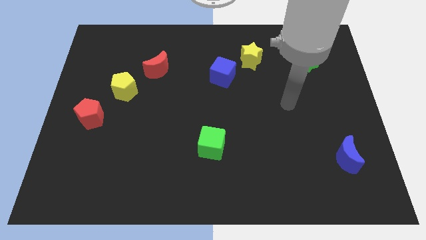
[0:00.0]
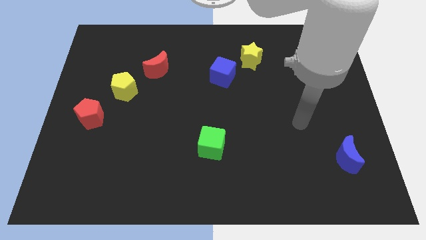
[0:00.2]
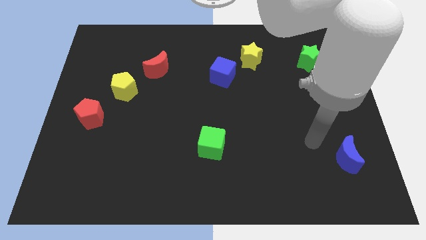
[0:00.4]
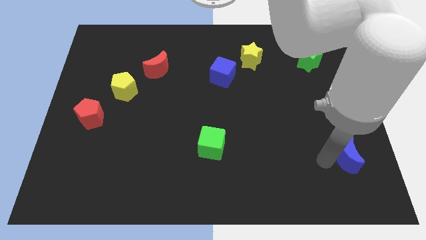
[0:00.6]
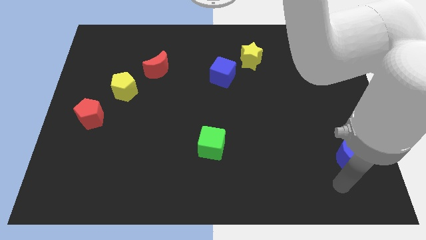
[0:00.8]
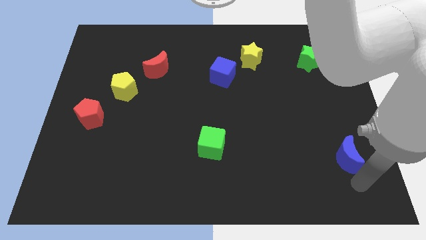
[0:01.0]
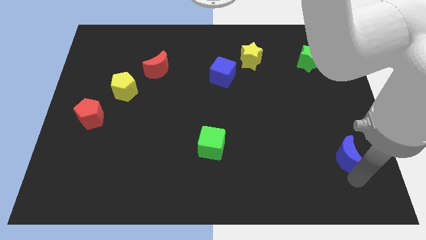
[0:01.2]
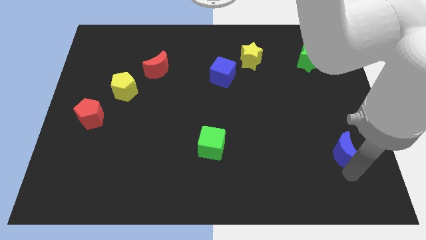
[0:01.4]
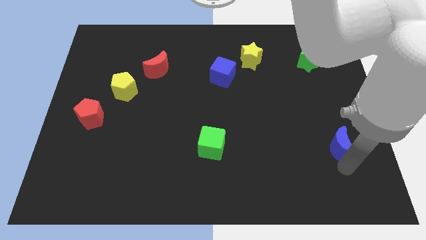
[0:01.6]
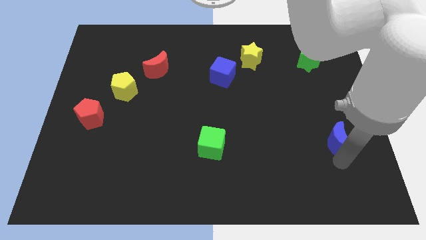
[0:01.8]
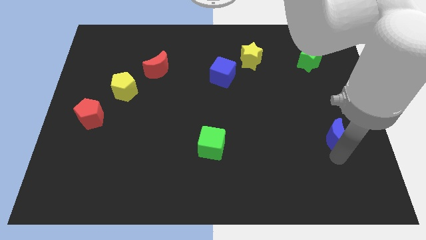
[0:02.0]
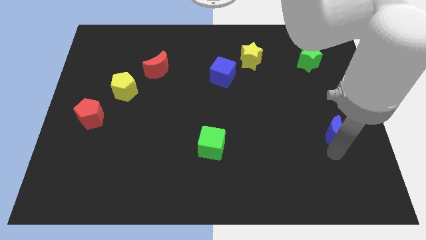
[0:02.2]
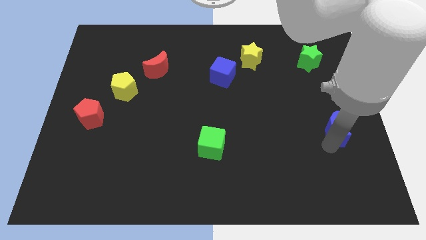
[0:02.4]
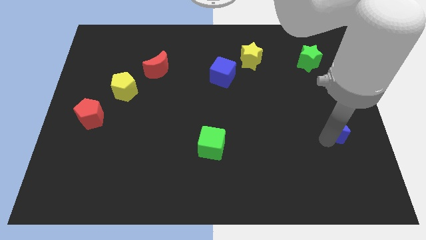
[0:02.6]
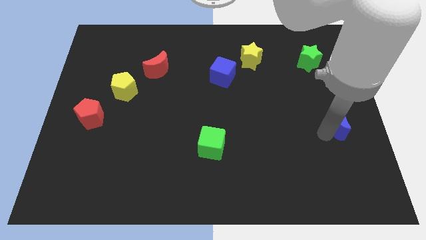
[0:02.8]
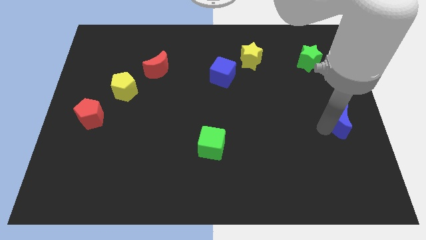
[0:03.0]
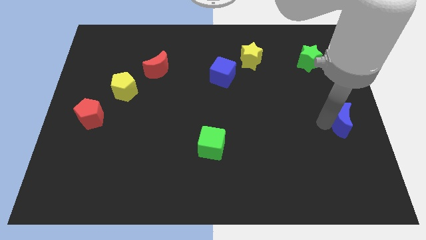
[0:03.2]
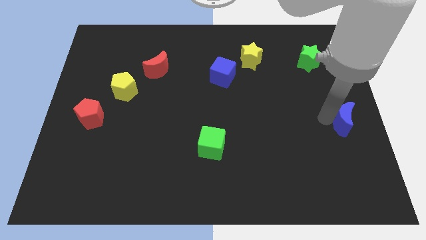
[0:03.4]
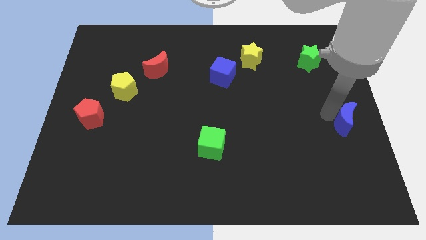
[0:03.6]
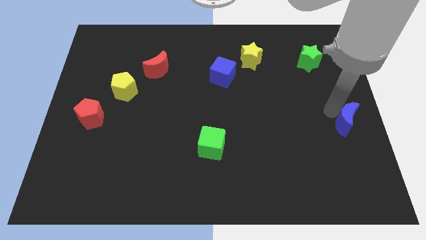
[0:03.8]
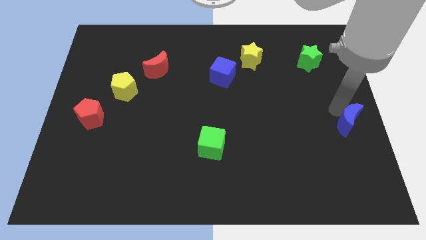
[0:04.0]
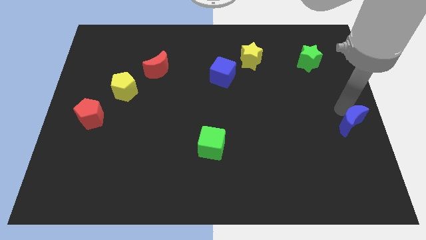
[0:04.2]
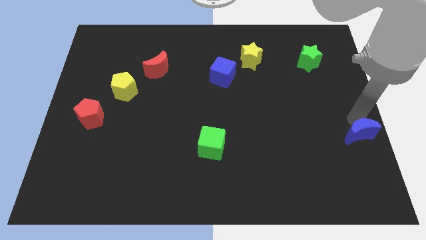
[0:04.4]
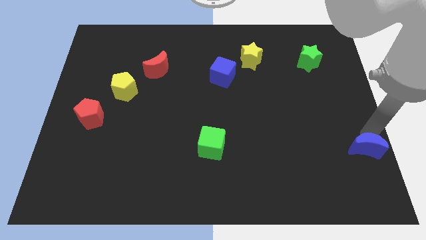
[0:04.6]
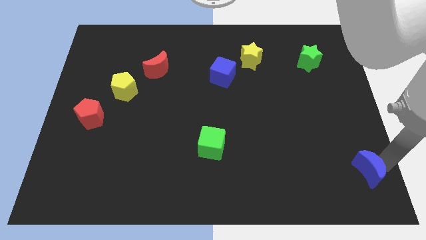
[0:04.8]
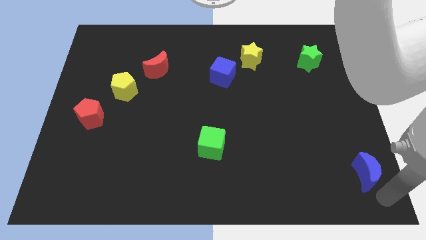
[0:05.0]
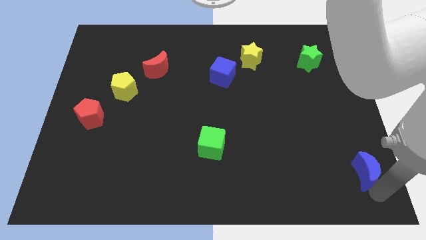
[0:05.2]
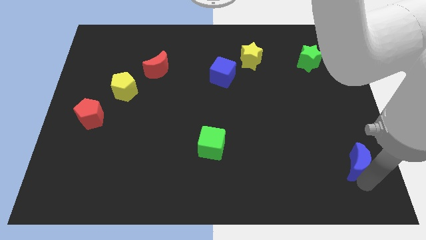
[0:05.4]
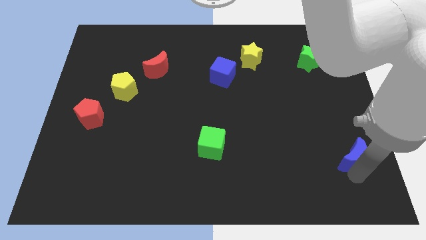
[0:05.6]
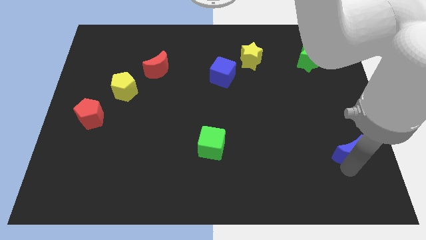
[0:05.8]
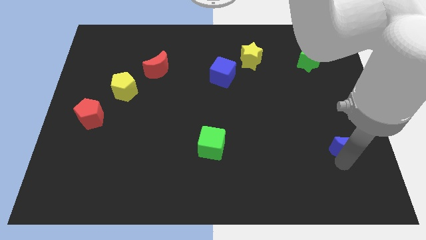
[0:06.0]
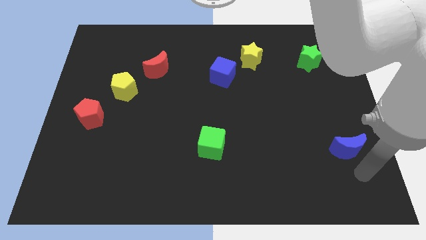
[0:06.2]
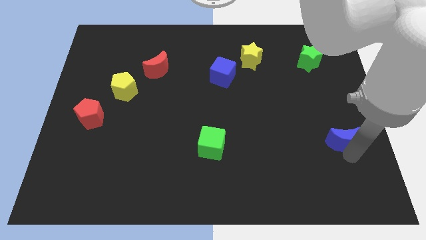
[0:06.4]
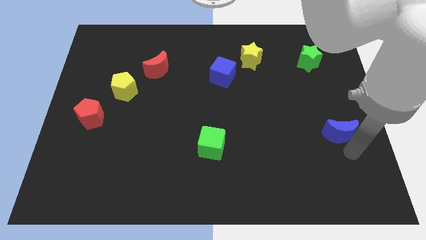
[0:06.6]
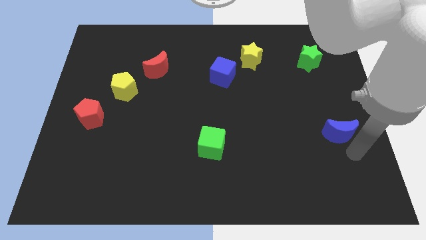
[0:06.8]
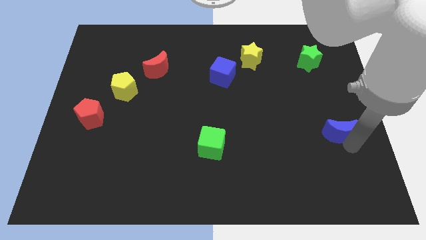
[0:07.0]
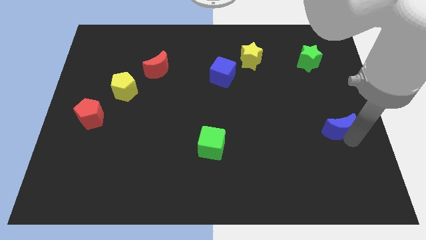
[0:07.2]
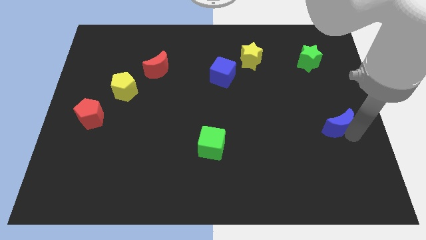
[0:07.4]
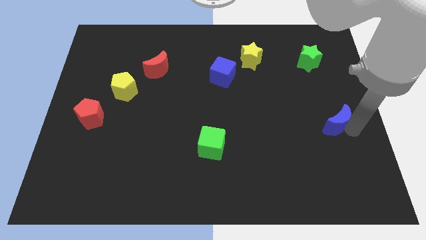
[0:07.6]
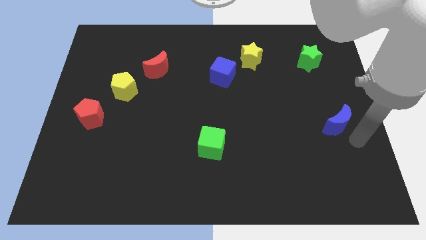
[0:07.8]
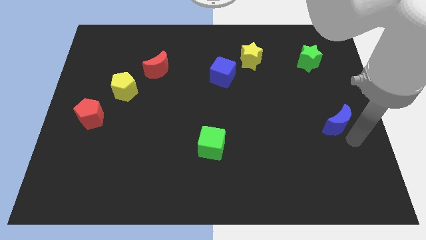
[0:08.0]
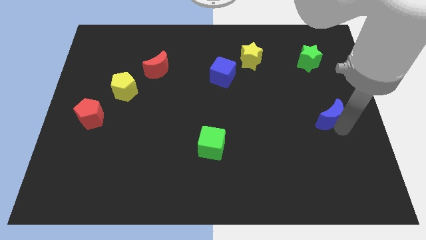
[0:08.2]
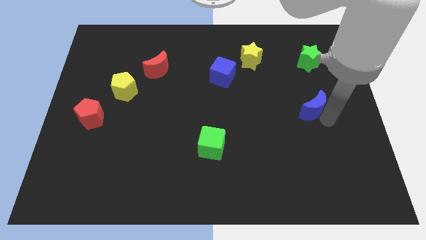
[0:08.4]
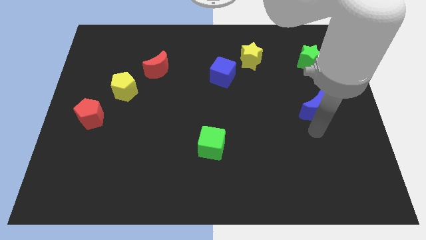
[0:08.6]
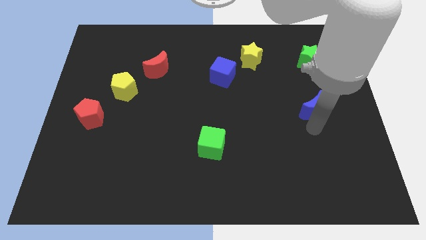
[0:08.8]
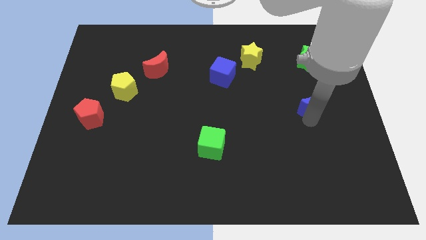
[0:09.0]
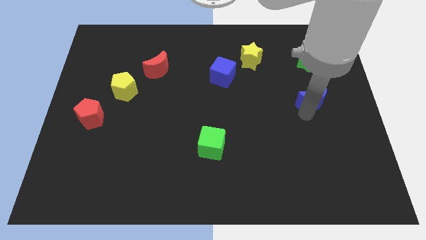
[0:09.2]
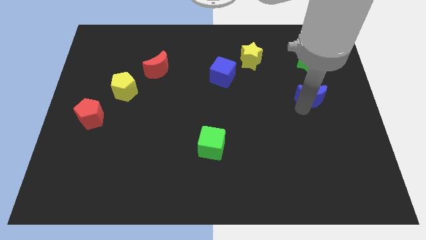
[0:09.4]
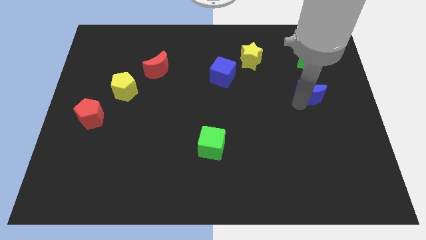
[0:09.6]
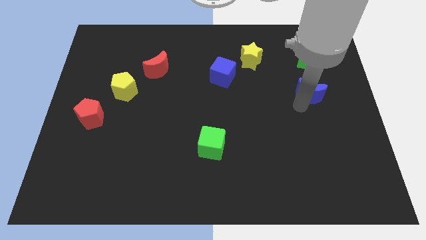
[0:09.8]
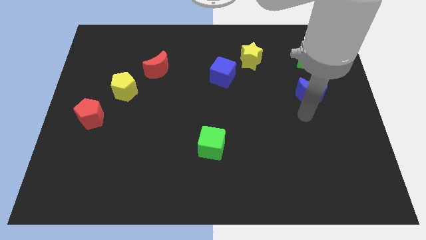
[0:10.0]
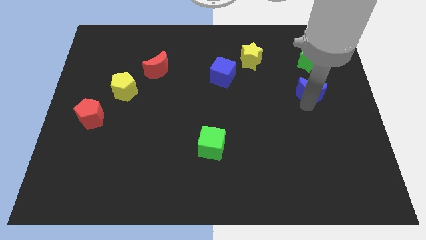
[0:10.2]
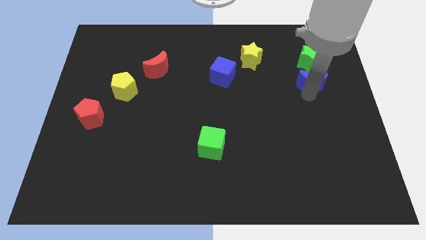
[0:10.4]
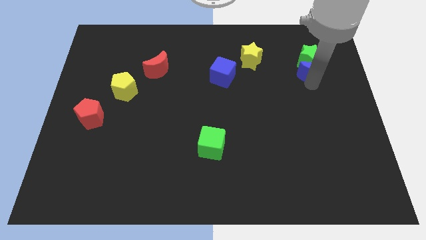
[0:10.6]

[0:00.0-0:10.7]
slide the blue moon to the green star

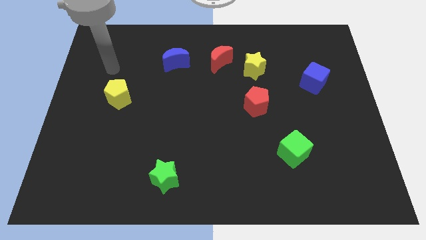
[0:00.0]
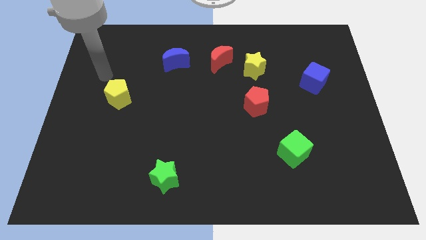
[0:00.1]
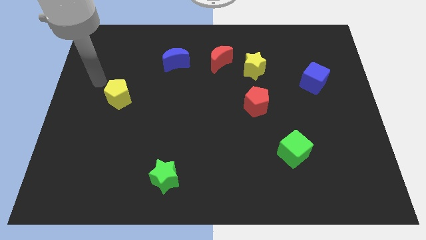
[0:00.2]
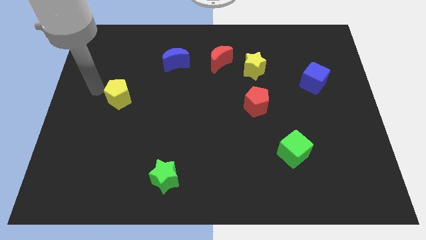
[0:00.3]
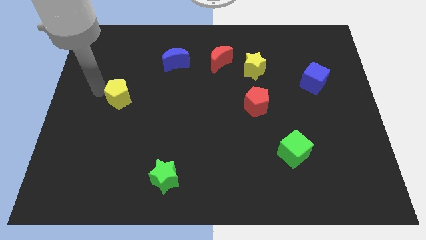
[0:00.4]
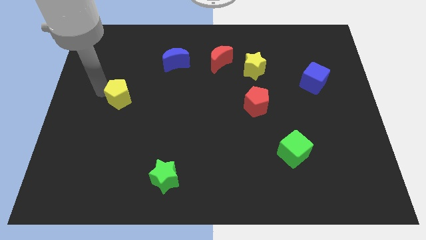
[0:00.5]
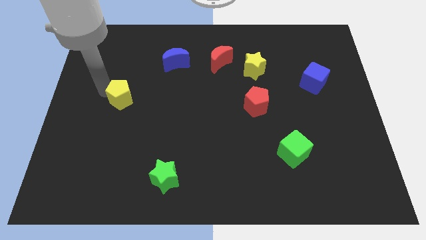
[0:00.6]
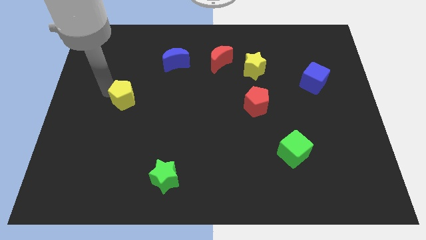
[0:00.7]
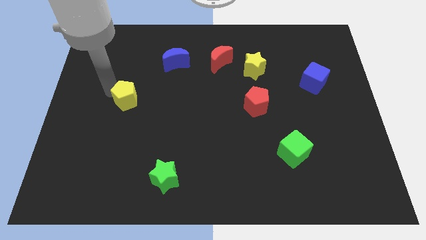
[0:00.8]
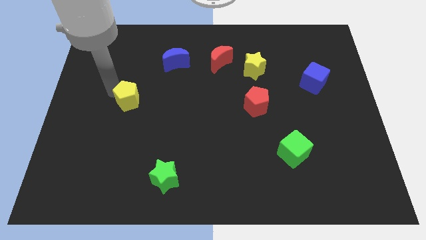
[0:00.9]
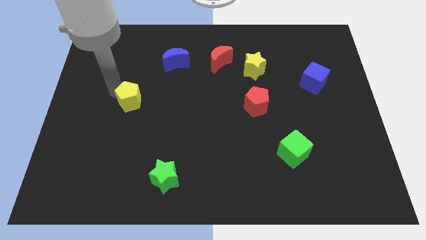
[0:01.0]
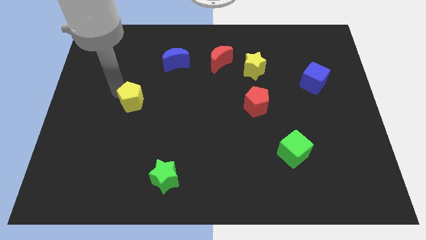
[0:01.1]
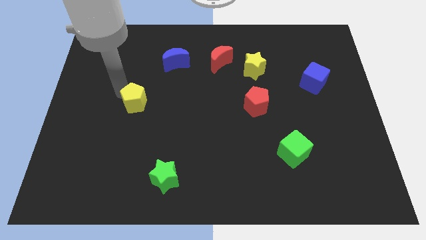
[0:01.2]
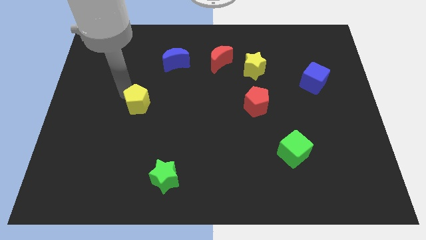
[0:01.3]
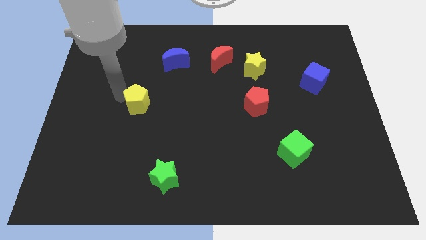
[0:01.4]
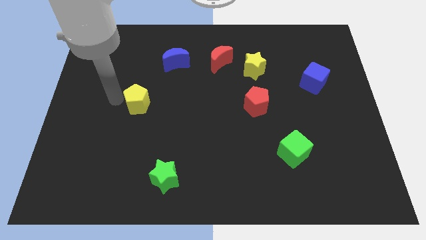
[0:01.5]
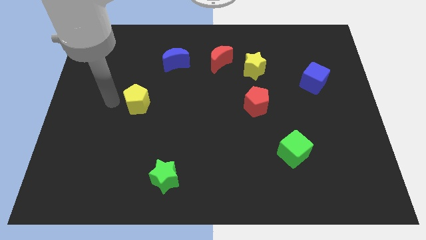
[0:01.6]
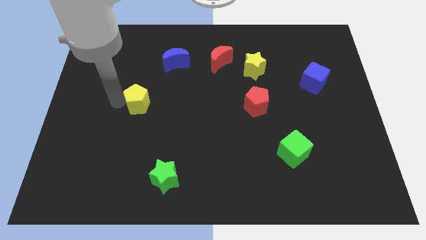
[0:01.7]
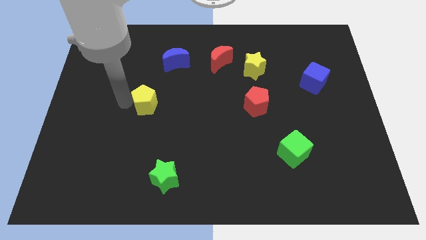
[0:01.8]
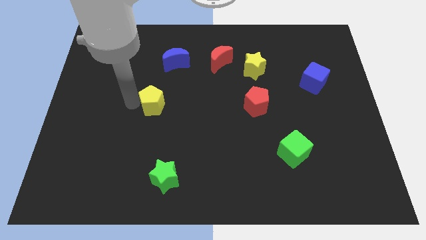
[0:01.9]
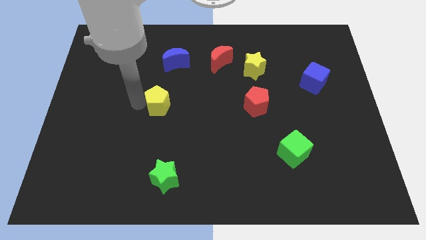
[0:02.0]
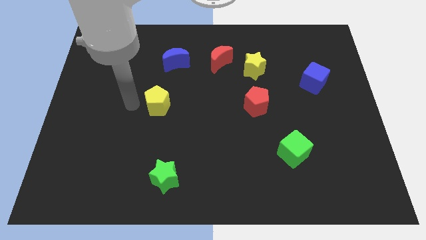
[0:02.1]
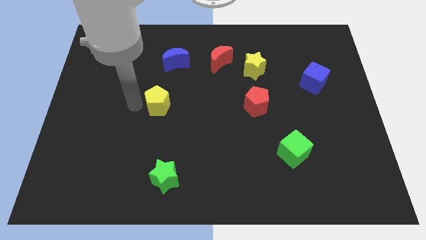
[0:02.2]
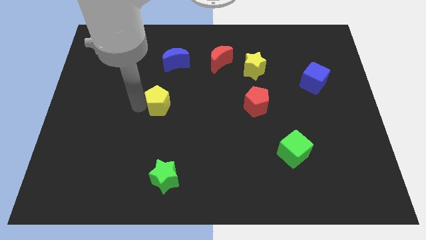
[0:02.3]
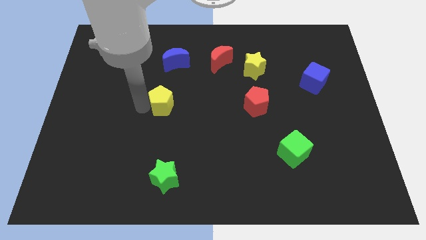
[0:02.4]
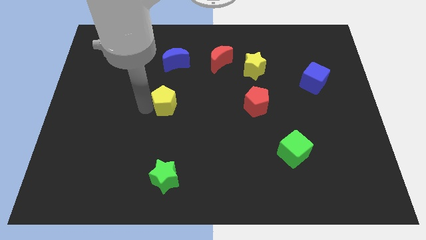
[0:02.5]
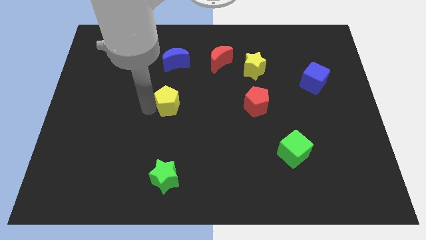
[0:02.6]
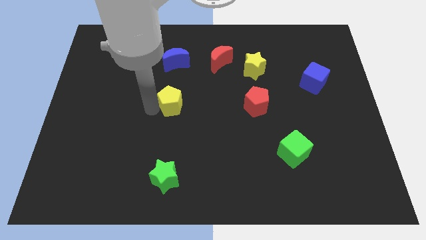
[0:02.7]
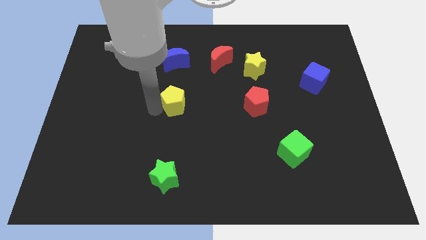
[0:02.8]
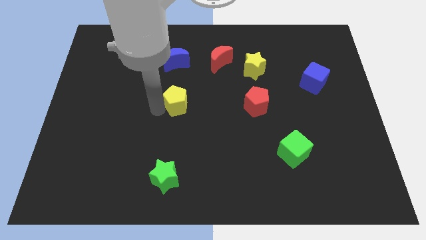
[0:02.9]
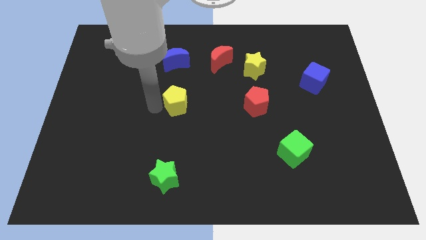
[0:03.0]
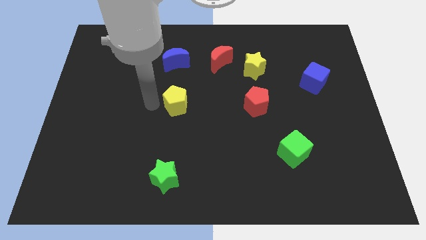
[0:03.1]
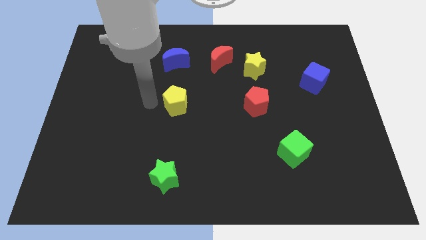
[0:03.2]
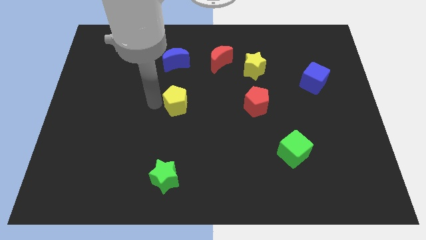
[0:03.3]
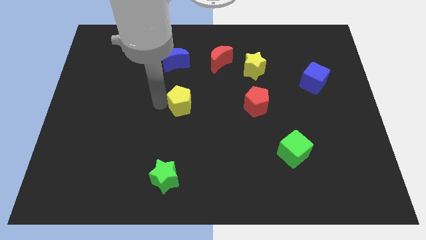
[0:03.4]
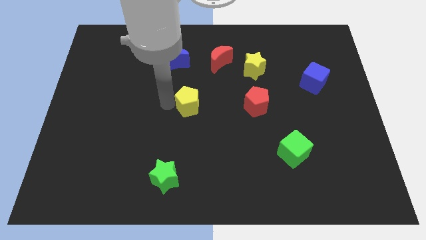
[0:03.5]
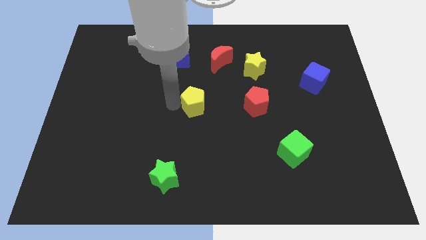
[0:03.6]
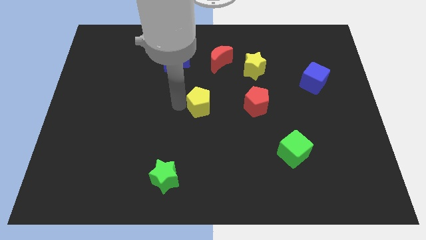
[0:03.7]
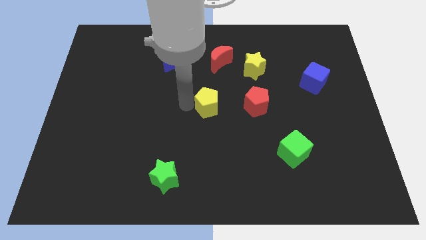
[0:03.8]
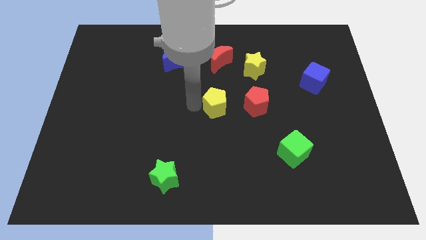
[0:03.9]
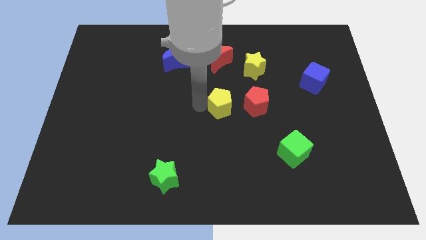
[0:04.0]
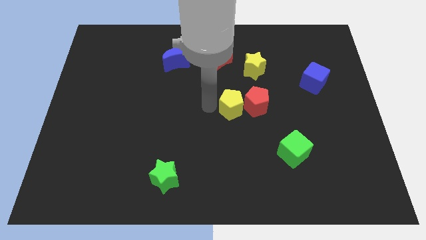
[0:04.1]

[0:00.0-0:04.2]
slide the yellow pentagon to the red pentagon
